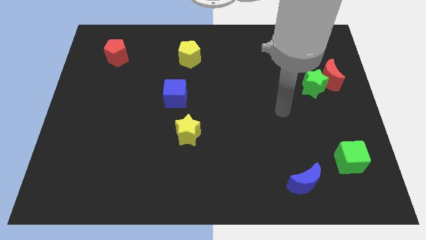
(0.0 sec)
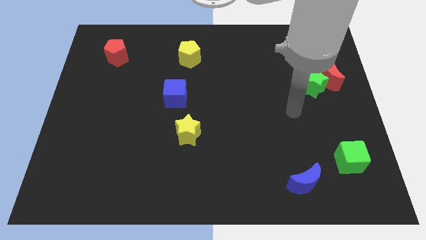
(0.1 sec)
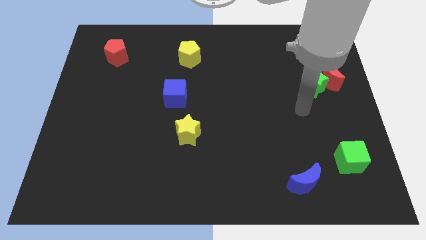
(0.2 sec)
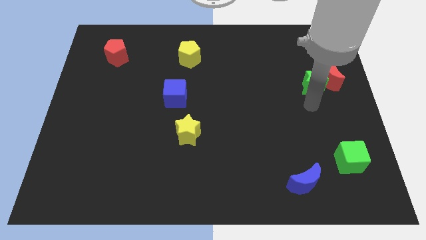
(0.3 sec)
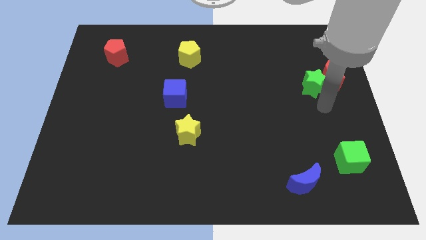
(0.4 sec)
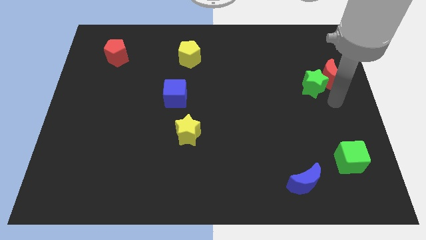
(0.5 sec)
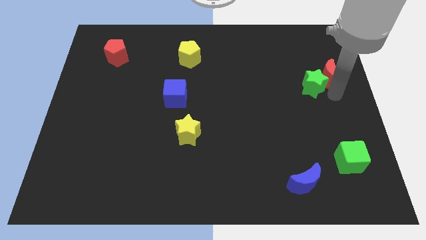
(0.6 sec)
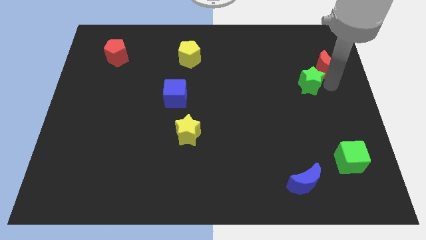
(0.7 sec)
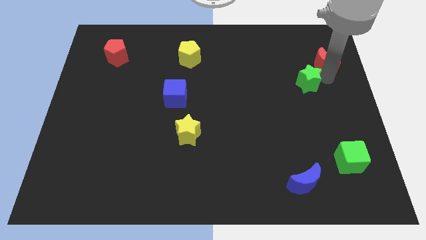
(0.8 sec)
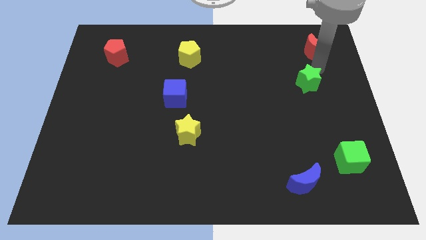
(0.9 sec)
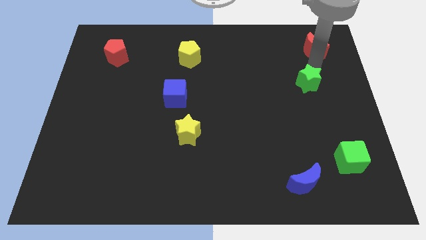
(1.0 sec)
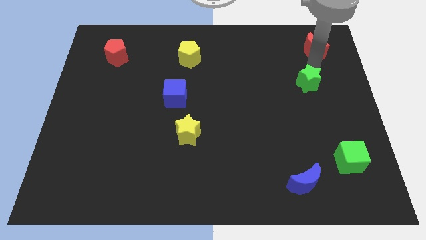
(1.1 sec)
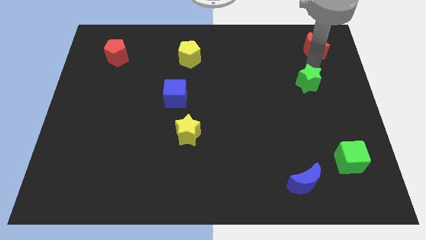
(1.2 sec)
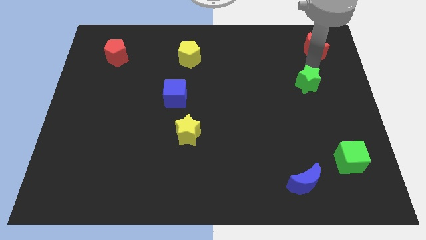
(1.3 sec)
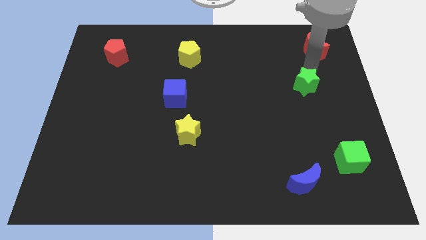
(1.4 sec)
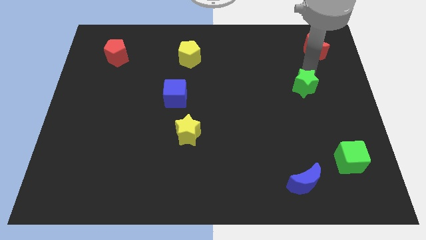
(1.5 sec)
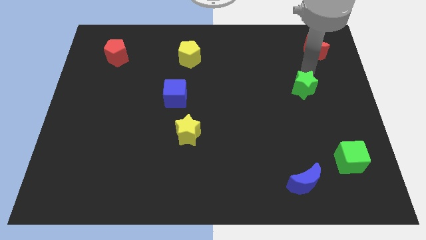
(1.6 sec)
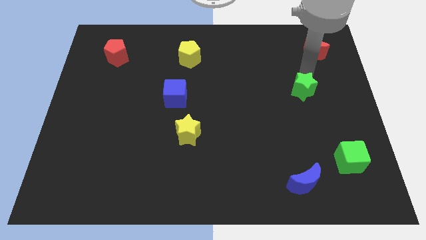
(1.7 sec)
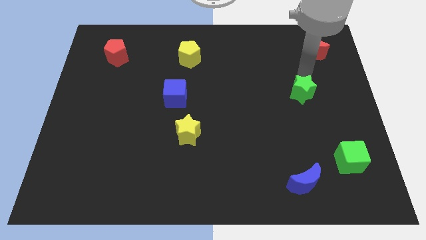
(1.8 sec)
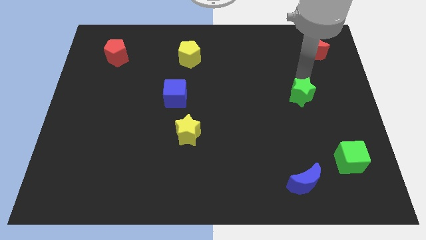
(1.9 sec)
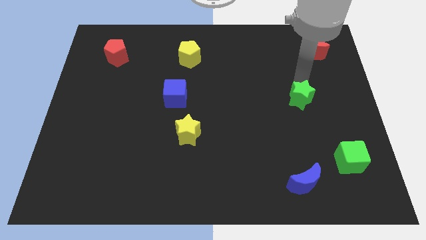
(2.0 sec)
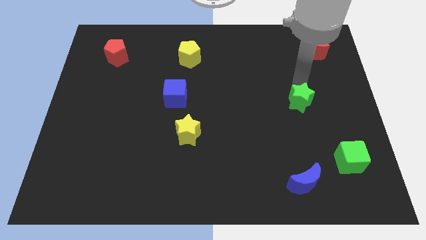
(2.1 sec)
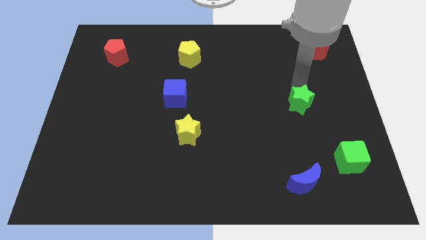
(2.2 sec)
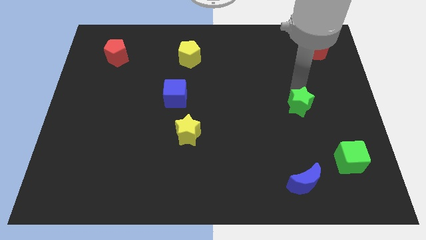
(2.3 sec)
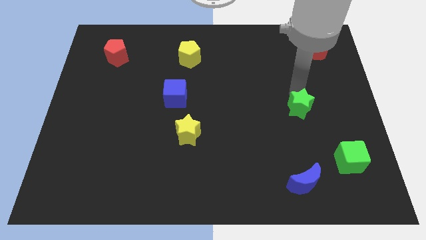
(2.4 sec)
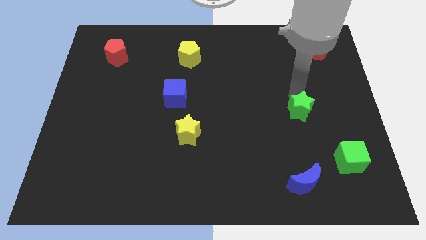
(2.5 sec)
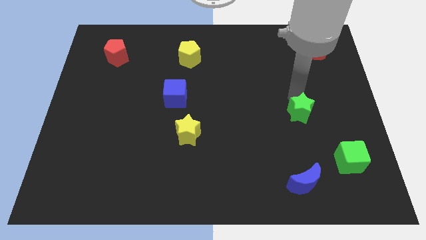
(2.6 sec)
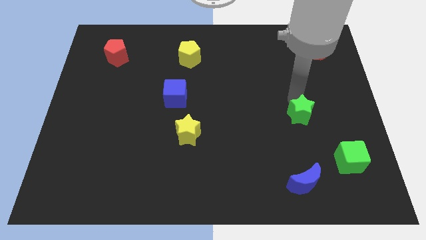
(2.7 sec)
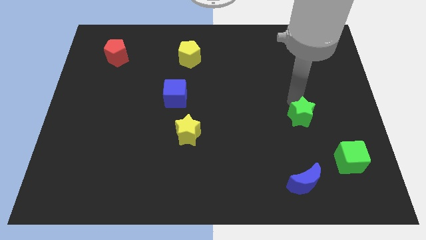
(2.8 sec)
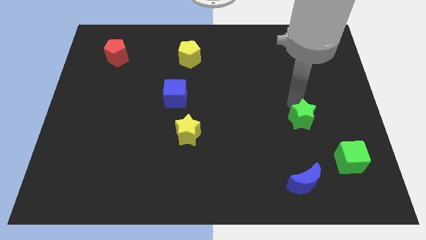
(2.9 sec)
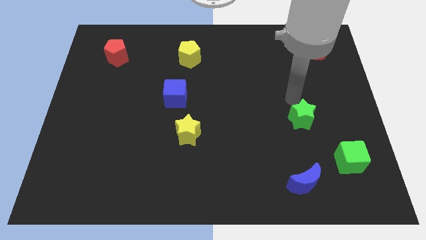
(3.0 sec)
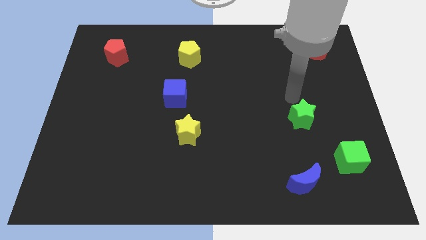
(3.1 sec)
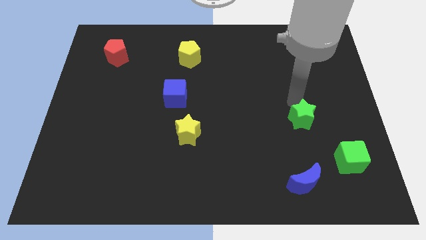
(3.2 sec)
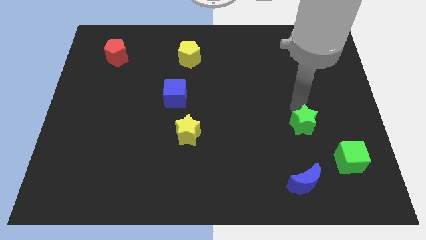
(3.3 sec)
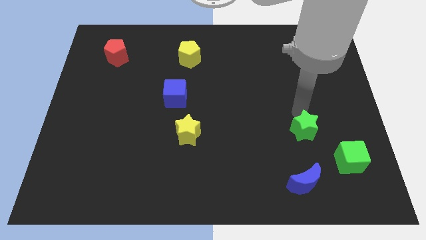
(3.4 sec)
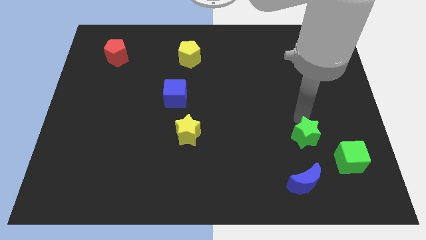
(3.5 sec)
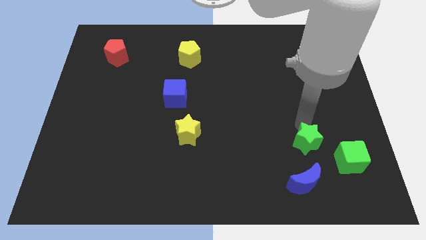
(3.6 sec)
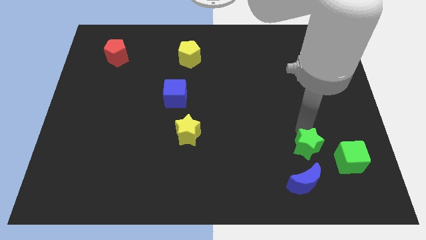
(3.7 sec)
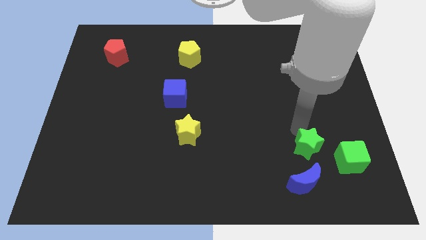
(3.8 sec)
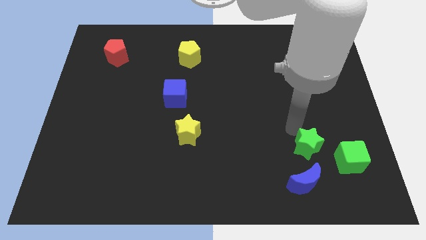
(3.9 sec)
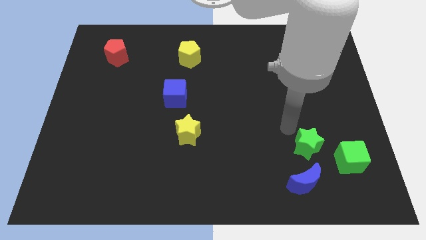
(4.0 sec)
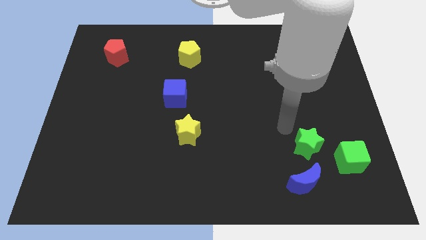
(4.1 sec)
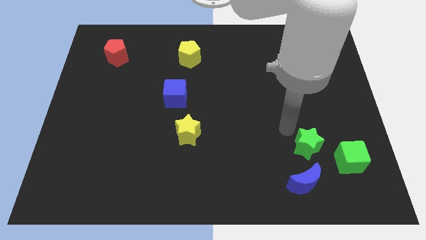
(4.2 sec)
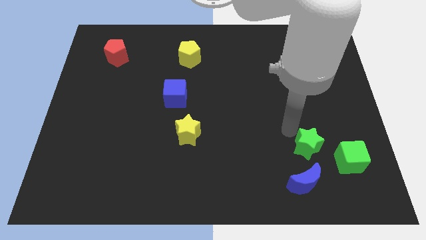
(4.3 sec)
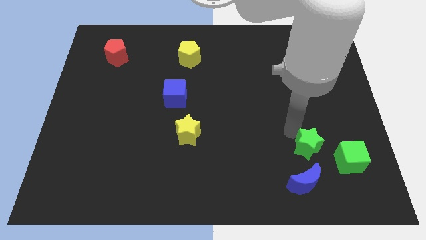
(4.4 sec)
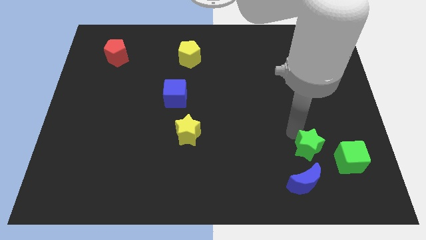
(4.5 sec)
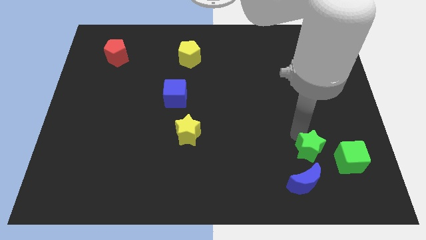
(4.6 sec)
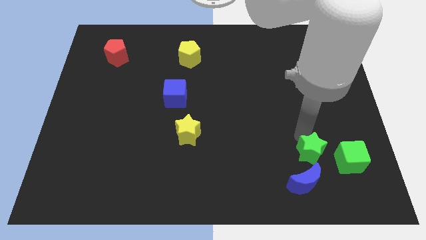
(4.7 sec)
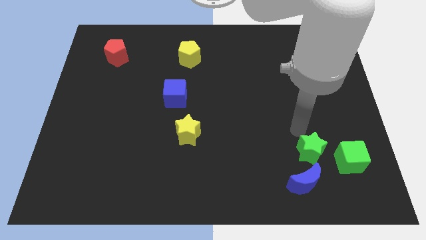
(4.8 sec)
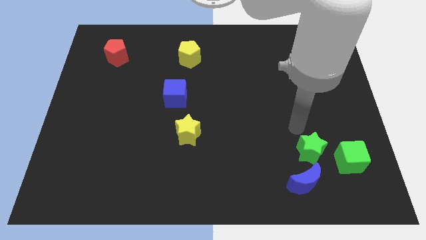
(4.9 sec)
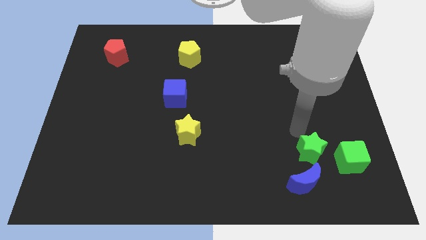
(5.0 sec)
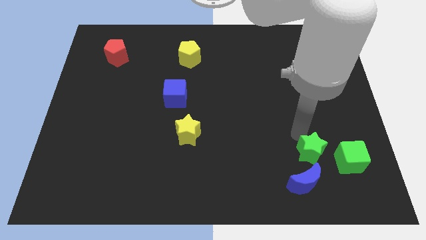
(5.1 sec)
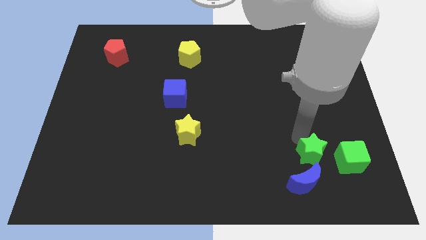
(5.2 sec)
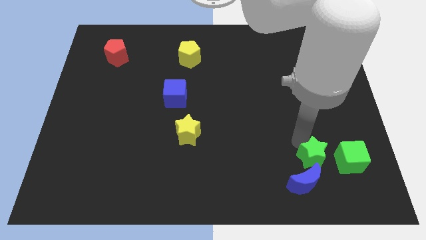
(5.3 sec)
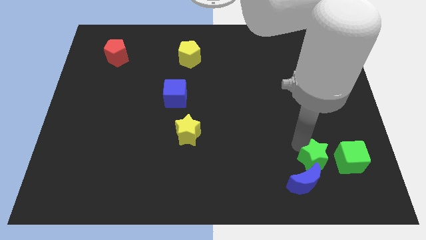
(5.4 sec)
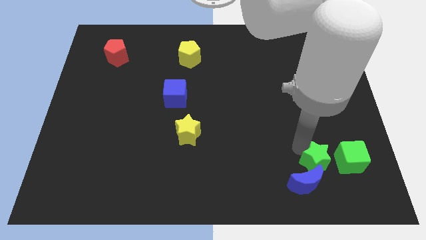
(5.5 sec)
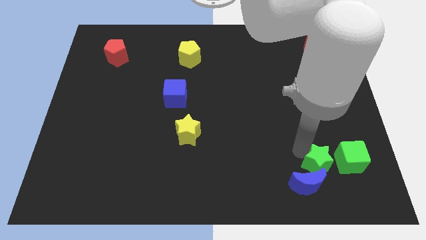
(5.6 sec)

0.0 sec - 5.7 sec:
move the green star diagonally down and to the left of the green cube

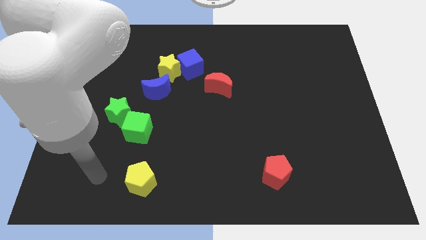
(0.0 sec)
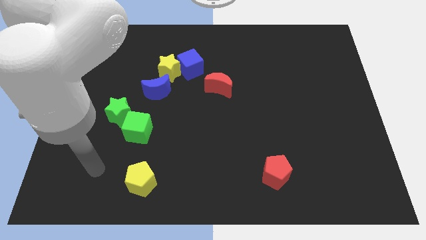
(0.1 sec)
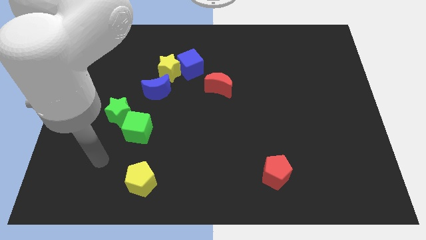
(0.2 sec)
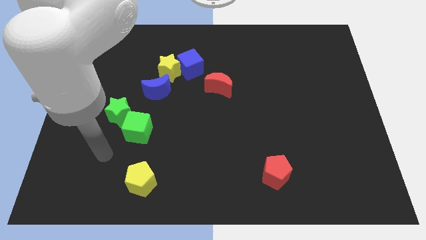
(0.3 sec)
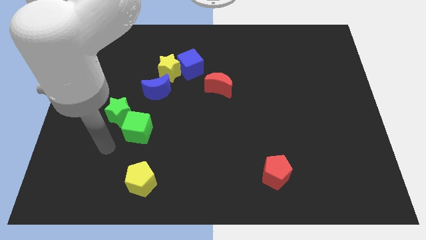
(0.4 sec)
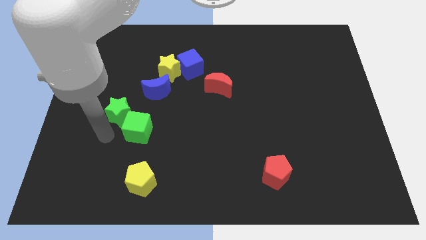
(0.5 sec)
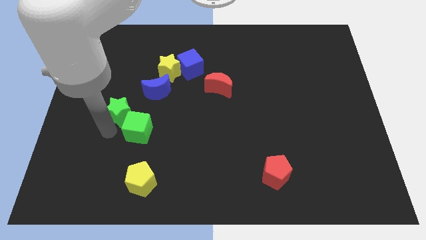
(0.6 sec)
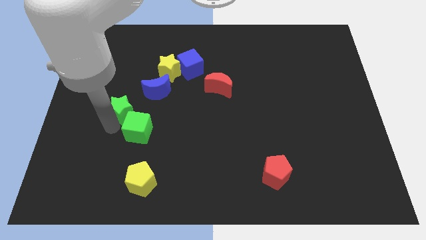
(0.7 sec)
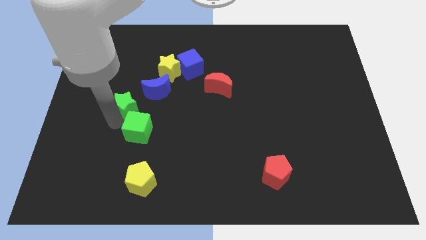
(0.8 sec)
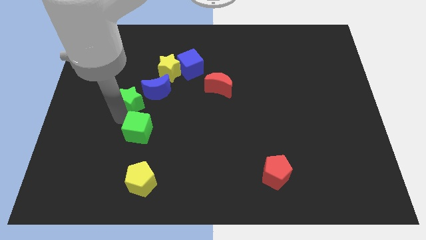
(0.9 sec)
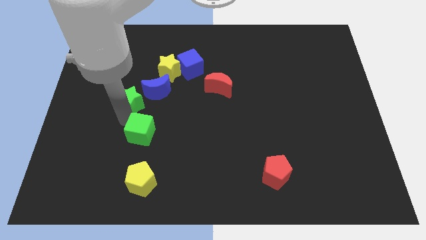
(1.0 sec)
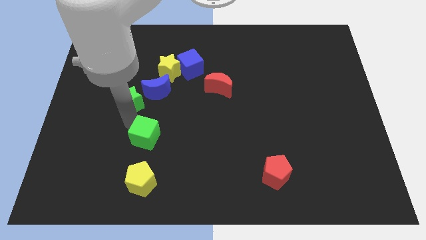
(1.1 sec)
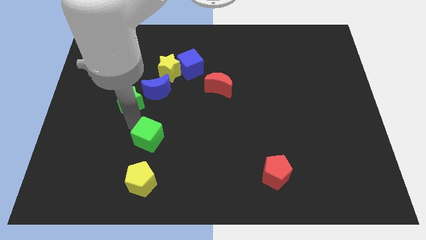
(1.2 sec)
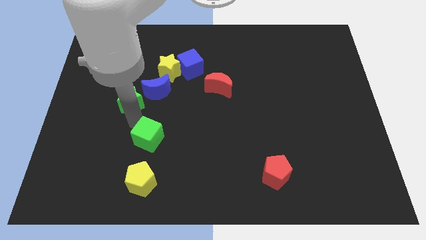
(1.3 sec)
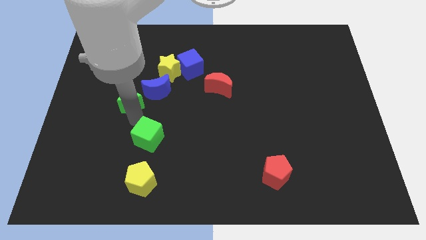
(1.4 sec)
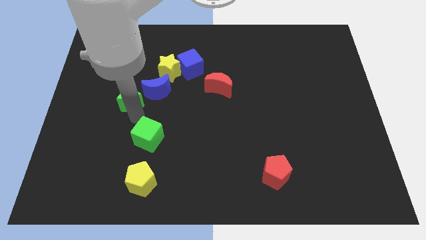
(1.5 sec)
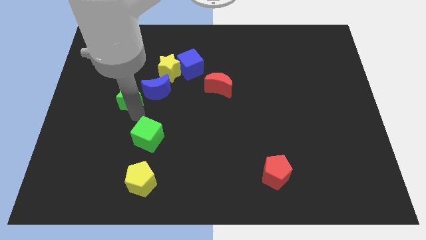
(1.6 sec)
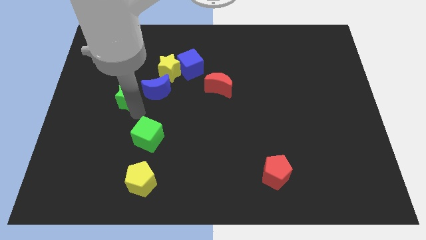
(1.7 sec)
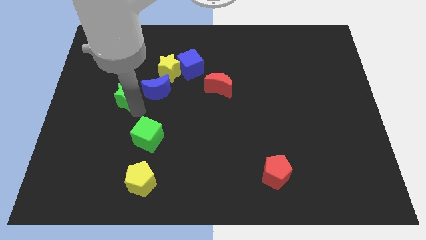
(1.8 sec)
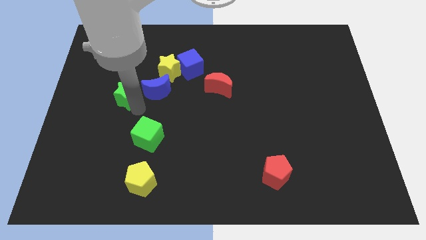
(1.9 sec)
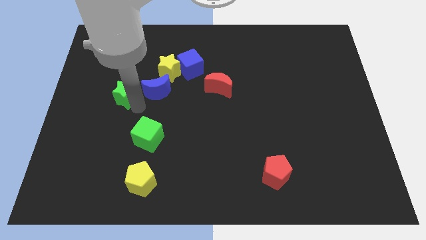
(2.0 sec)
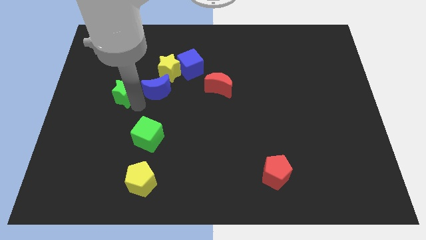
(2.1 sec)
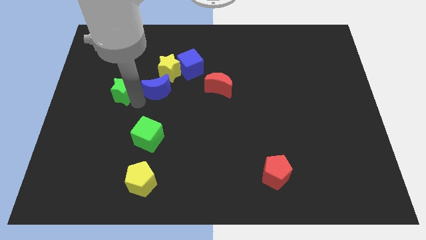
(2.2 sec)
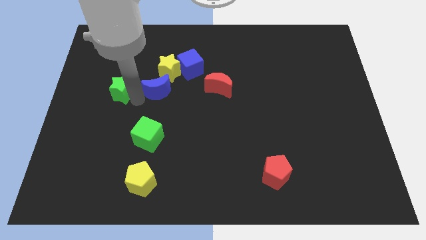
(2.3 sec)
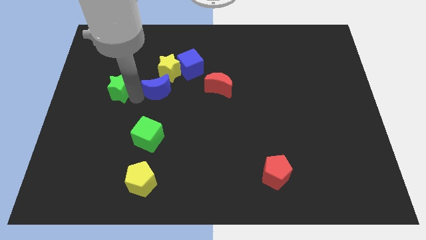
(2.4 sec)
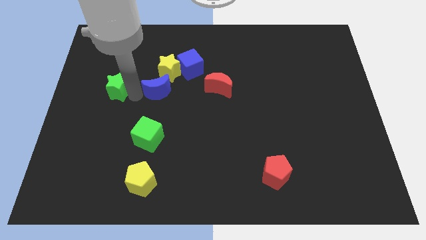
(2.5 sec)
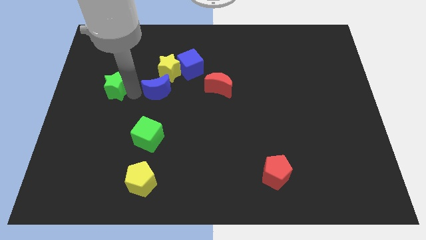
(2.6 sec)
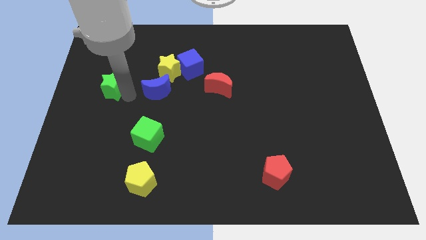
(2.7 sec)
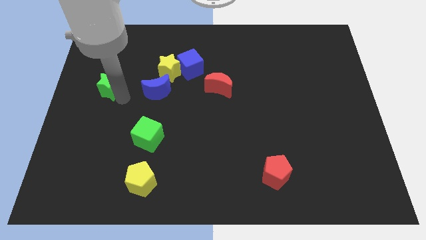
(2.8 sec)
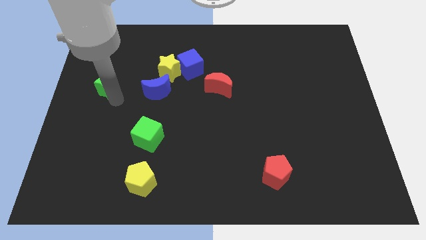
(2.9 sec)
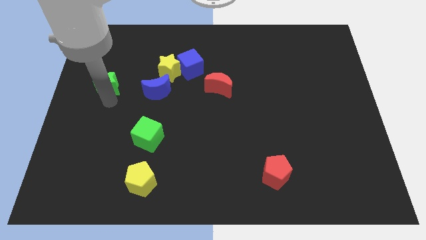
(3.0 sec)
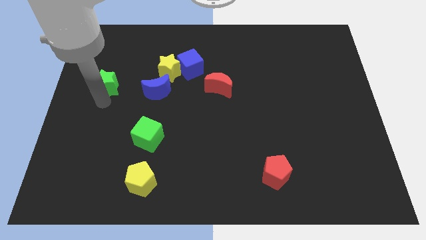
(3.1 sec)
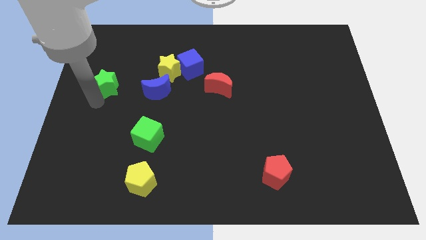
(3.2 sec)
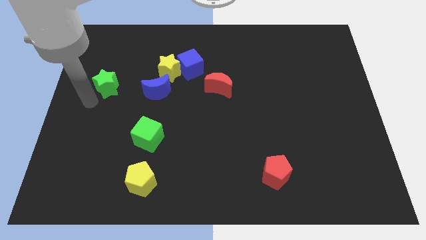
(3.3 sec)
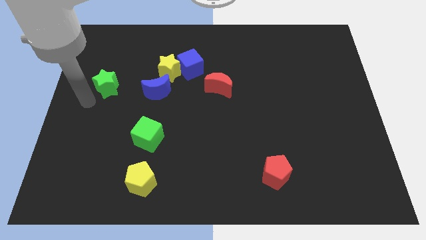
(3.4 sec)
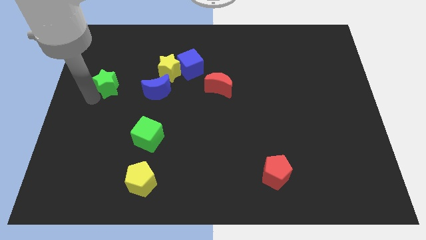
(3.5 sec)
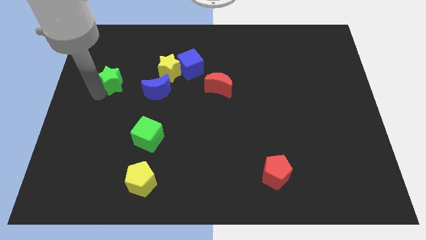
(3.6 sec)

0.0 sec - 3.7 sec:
push the green star to the left side of the yellow star
